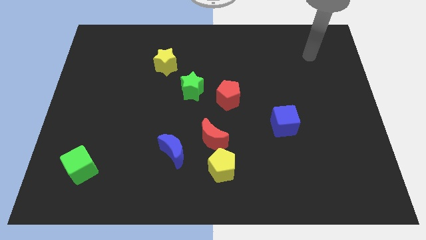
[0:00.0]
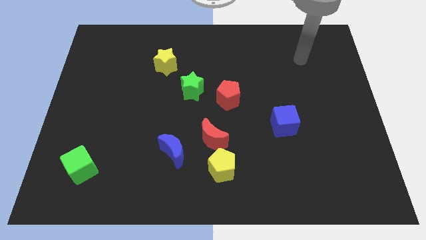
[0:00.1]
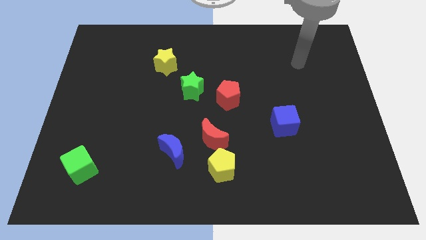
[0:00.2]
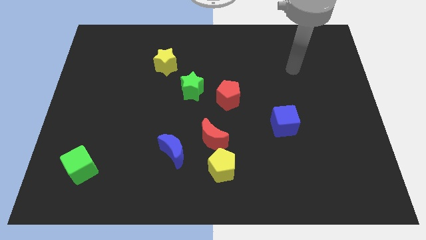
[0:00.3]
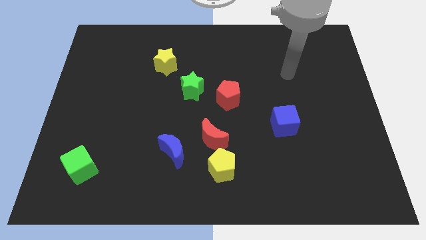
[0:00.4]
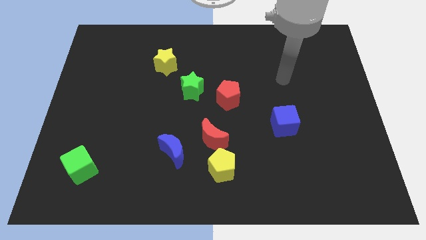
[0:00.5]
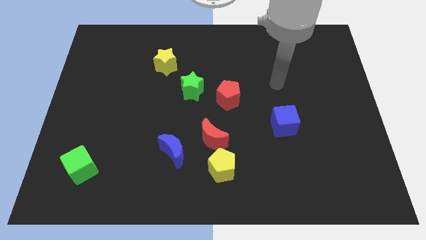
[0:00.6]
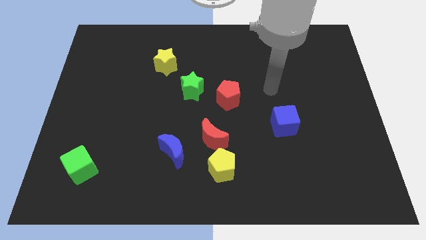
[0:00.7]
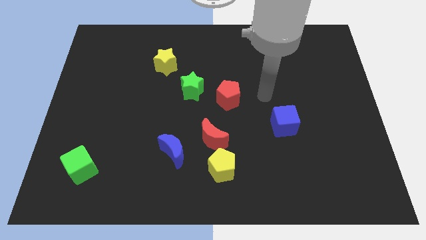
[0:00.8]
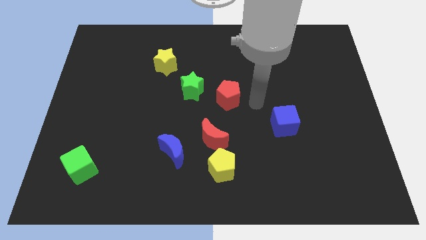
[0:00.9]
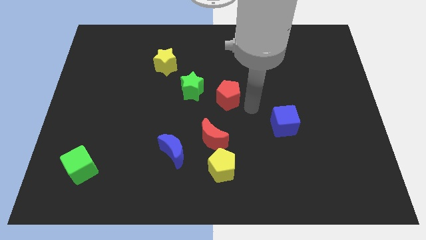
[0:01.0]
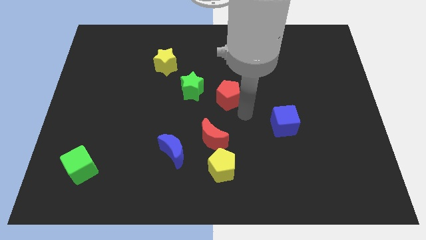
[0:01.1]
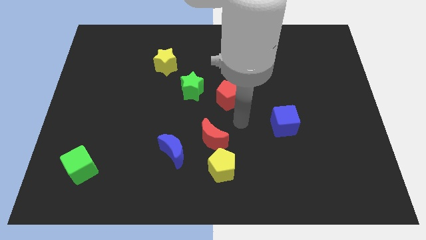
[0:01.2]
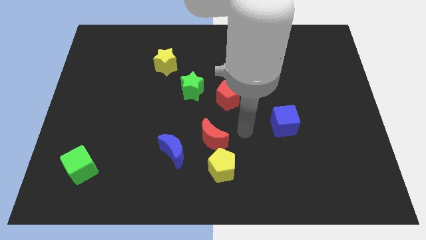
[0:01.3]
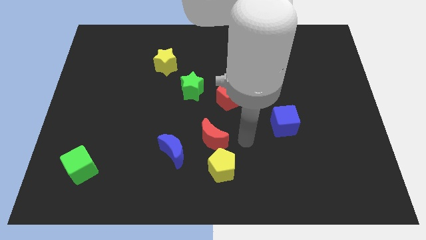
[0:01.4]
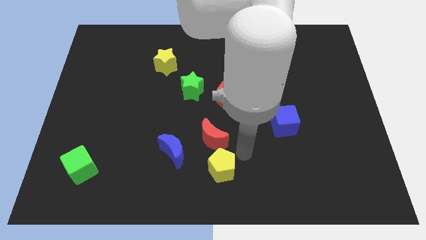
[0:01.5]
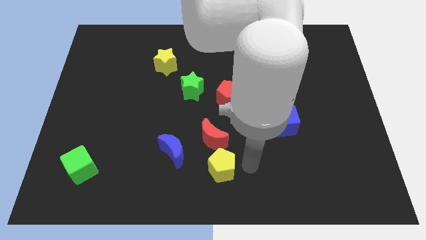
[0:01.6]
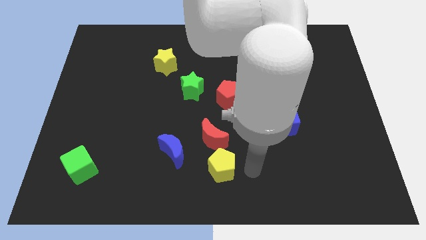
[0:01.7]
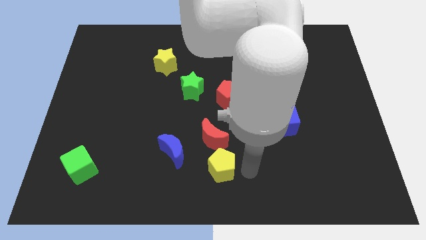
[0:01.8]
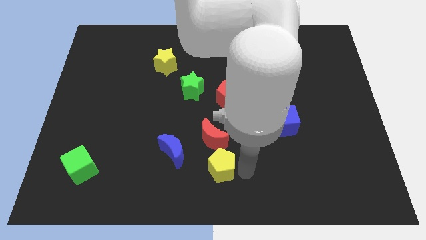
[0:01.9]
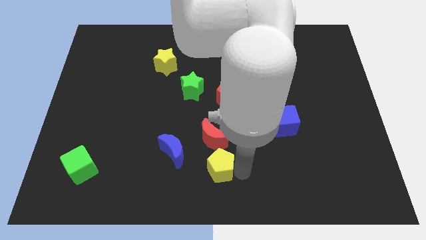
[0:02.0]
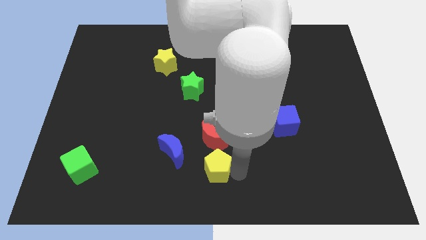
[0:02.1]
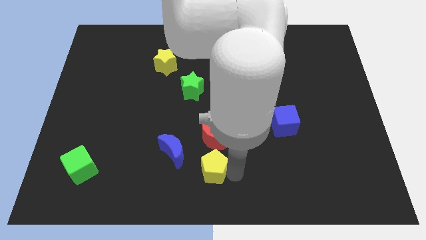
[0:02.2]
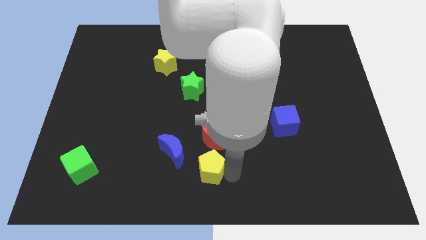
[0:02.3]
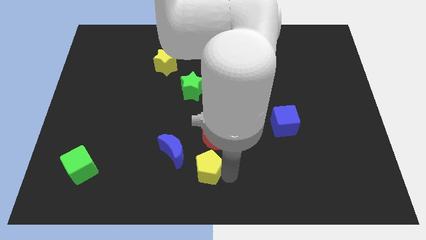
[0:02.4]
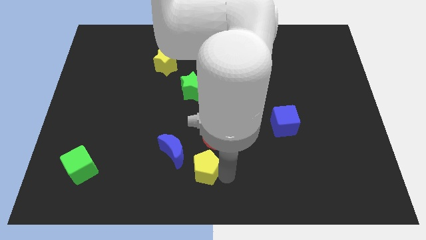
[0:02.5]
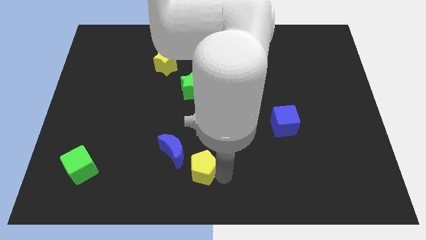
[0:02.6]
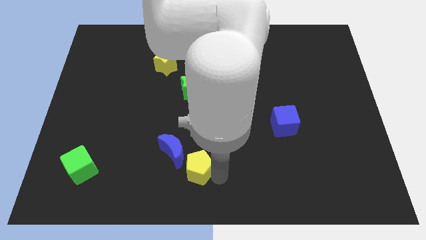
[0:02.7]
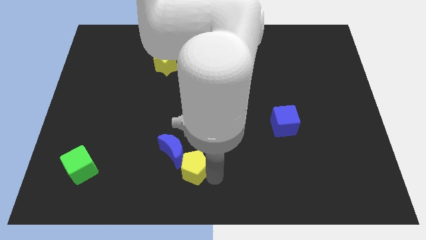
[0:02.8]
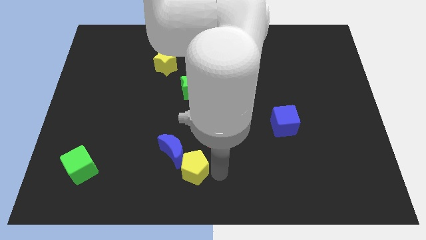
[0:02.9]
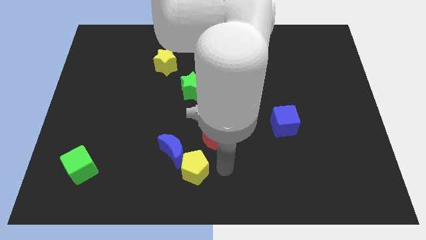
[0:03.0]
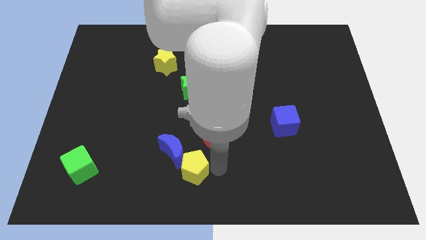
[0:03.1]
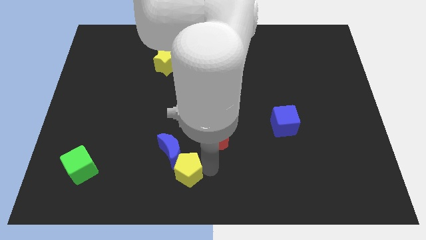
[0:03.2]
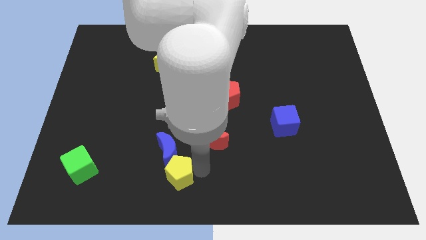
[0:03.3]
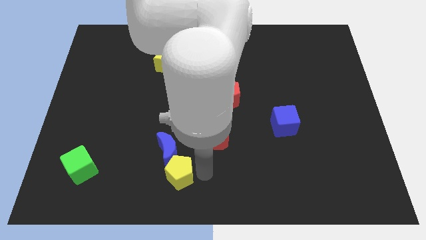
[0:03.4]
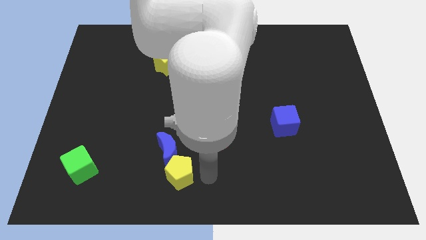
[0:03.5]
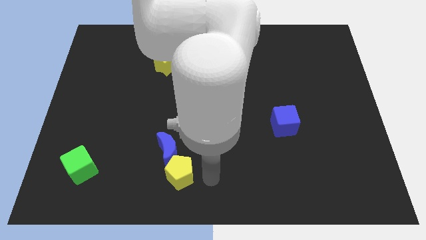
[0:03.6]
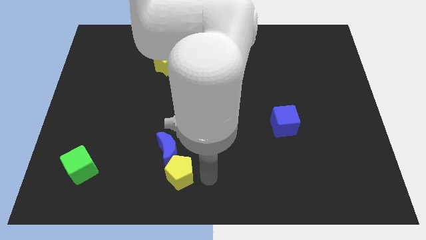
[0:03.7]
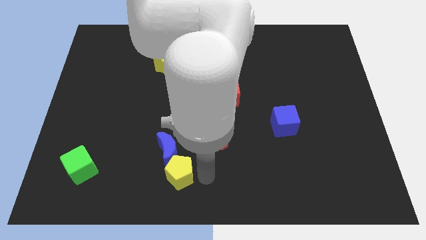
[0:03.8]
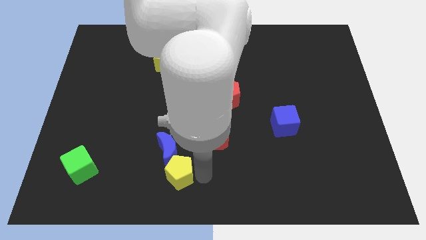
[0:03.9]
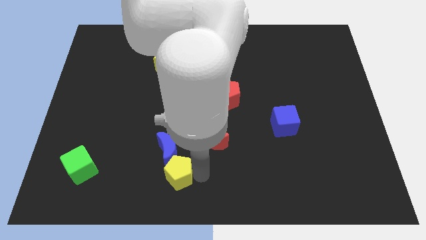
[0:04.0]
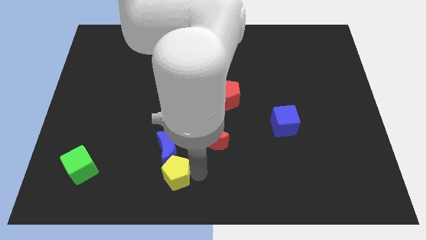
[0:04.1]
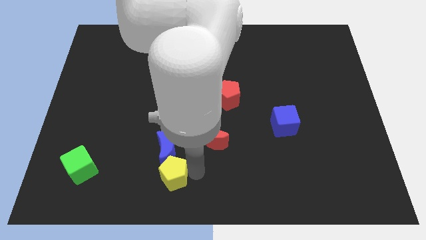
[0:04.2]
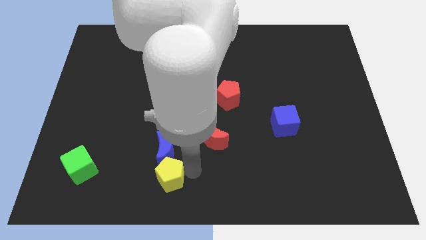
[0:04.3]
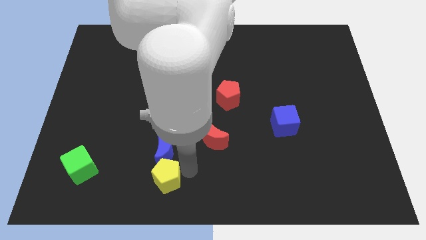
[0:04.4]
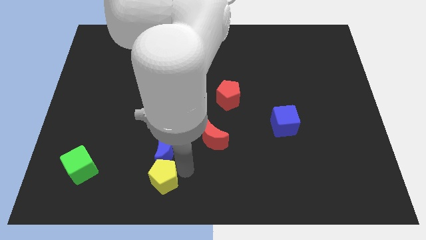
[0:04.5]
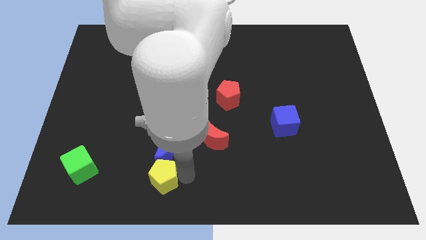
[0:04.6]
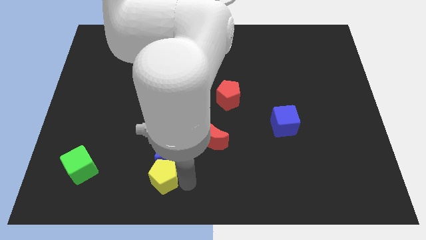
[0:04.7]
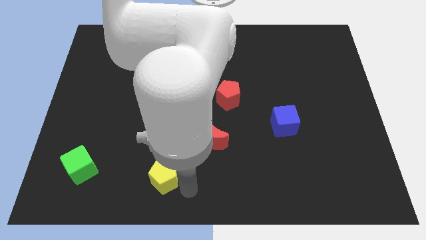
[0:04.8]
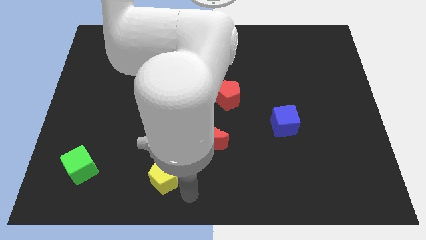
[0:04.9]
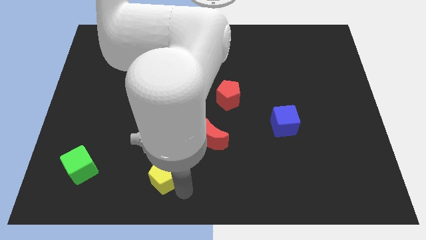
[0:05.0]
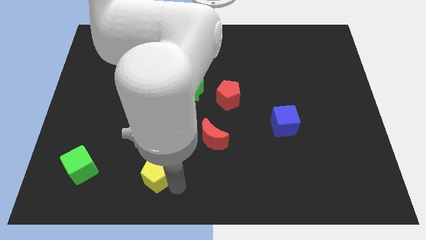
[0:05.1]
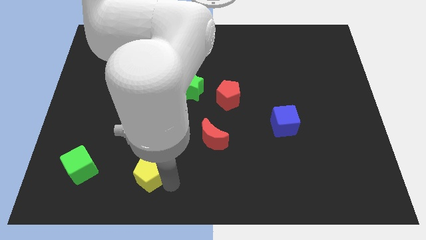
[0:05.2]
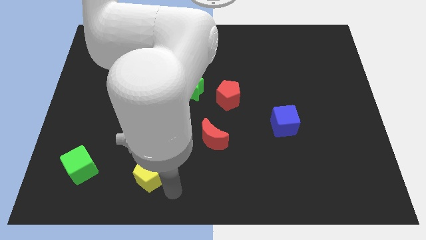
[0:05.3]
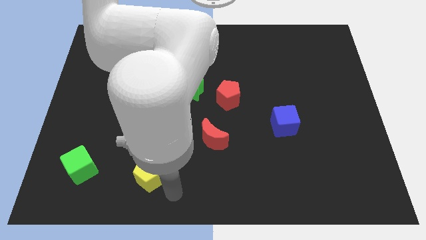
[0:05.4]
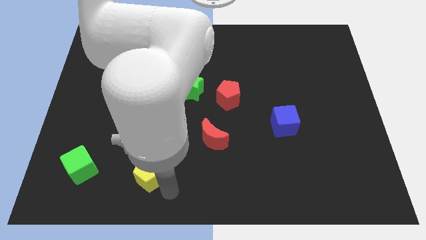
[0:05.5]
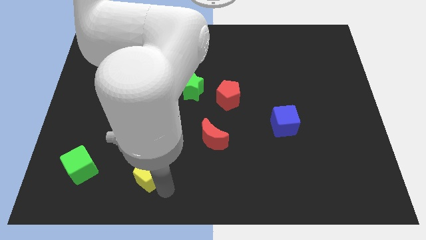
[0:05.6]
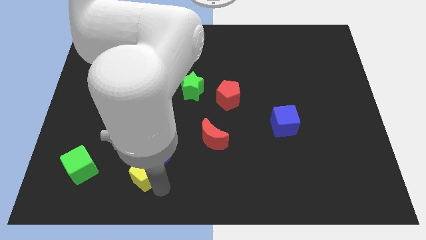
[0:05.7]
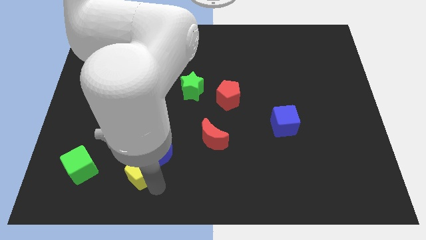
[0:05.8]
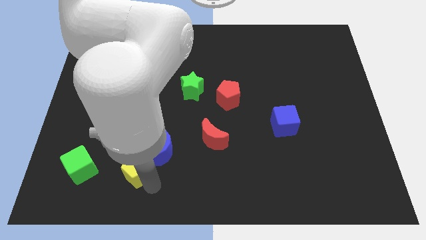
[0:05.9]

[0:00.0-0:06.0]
move the yellow pentagon just left of the blue moon
